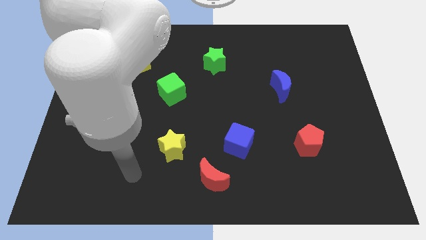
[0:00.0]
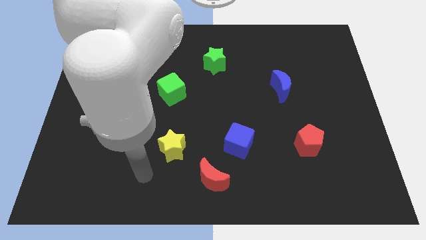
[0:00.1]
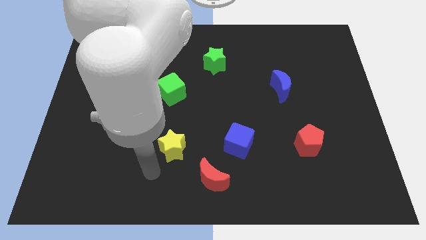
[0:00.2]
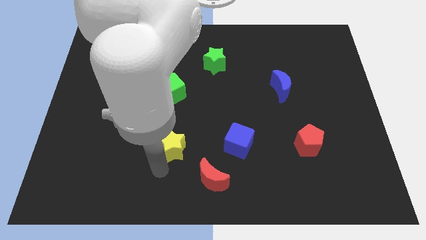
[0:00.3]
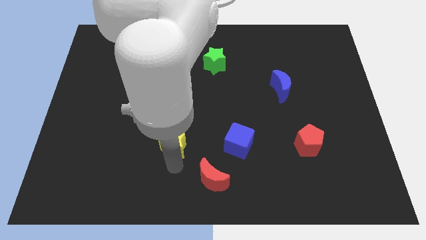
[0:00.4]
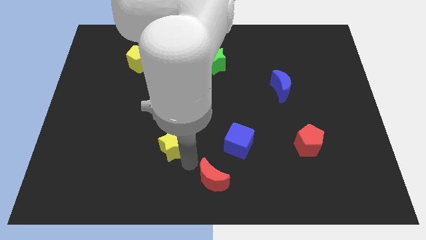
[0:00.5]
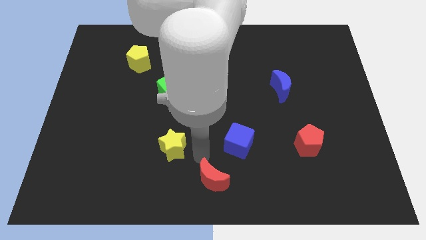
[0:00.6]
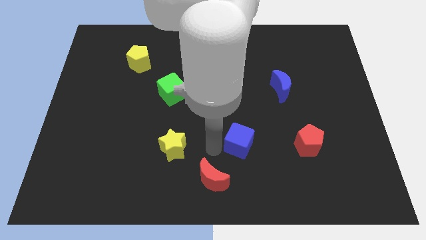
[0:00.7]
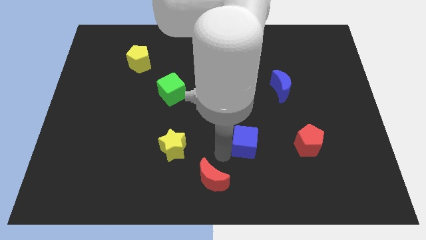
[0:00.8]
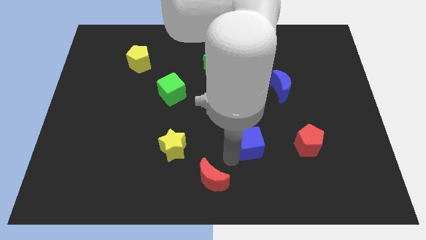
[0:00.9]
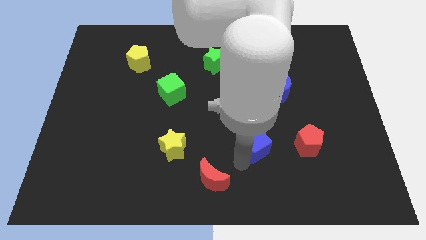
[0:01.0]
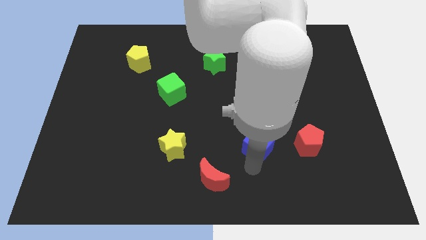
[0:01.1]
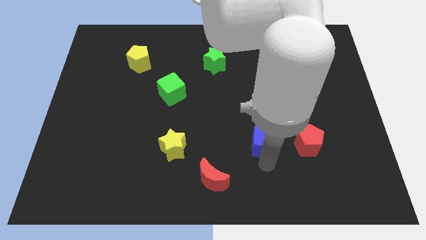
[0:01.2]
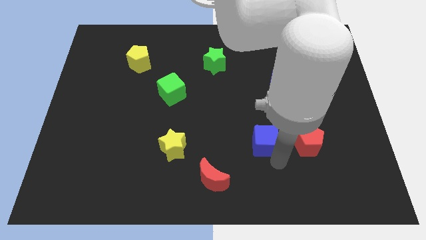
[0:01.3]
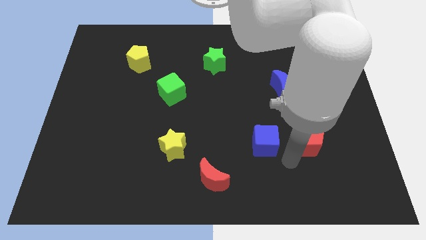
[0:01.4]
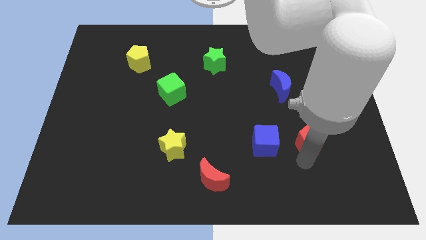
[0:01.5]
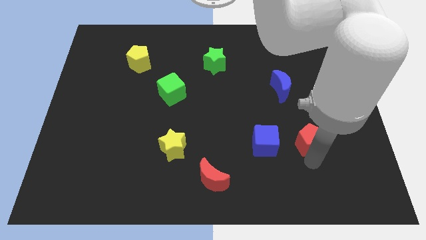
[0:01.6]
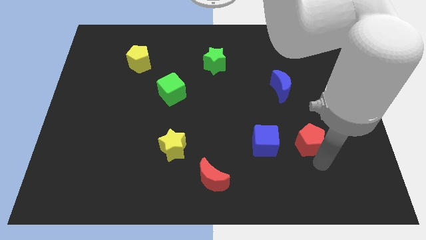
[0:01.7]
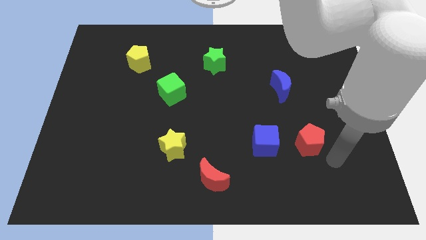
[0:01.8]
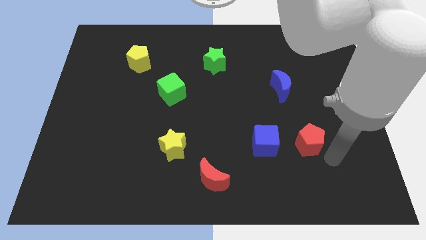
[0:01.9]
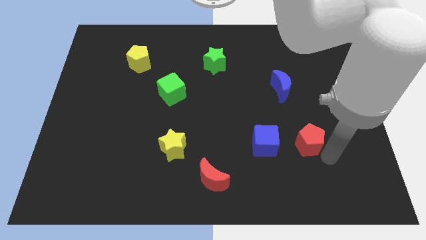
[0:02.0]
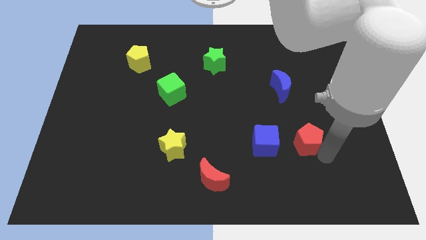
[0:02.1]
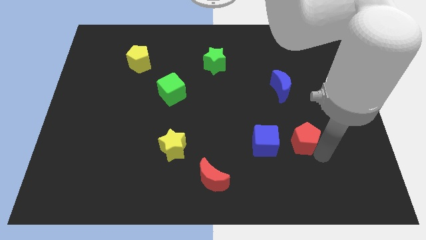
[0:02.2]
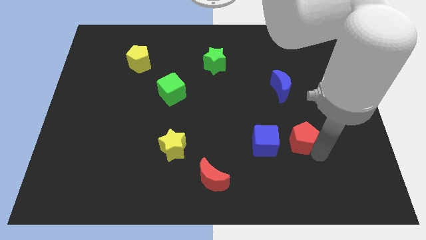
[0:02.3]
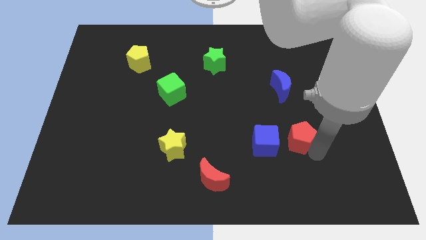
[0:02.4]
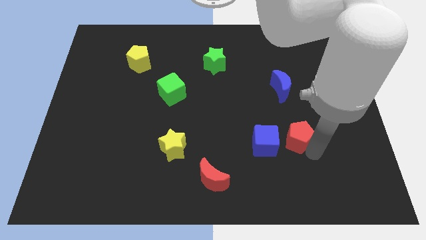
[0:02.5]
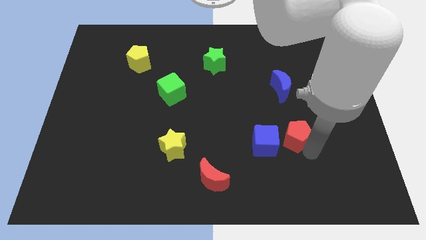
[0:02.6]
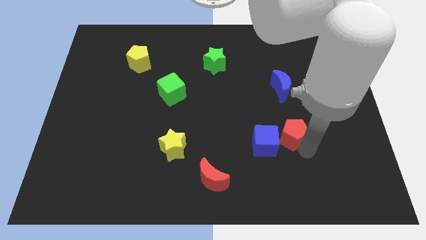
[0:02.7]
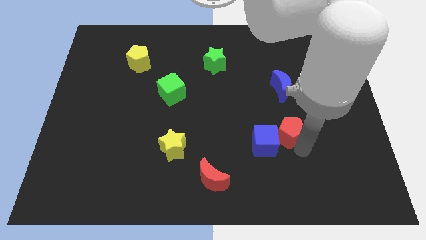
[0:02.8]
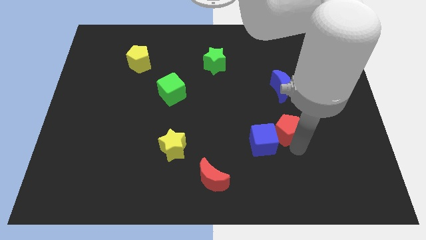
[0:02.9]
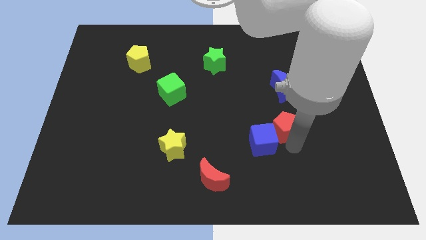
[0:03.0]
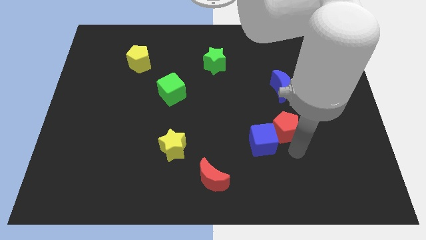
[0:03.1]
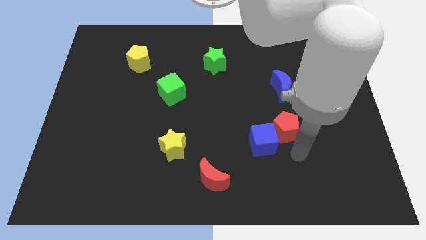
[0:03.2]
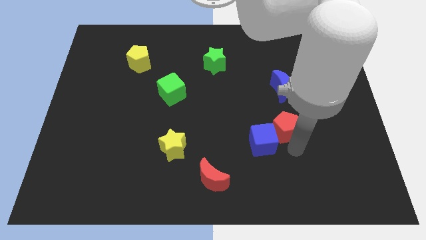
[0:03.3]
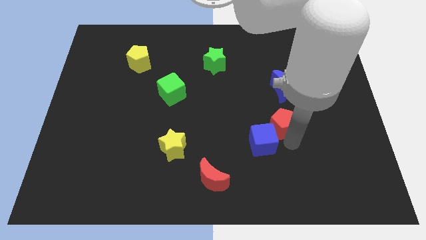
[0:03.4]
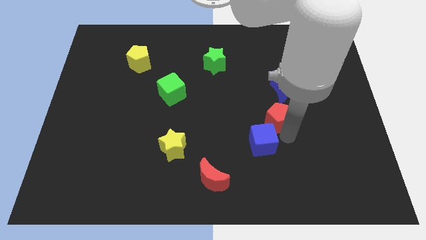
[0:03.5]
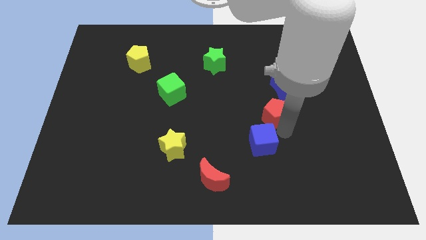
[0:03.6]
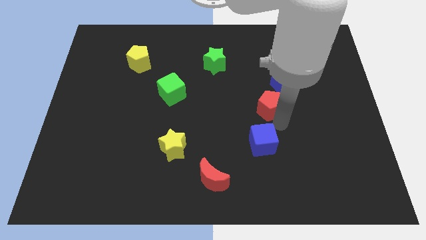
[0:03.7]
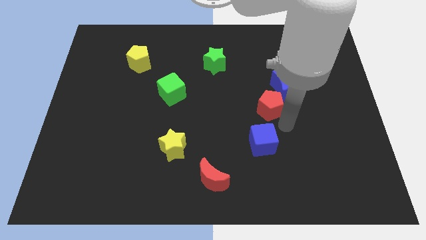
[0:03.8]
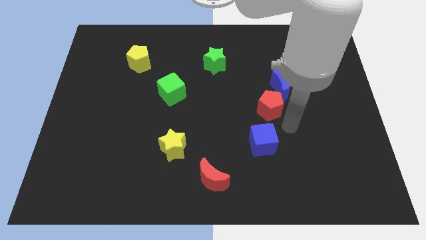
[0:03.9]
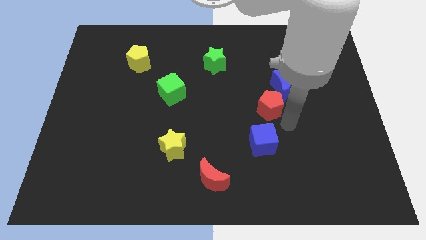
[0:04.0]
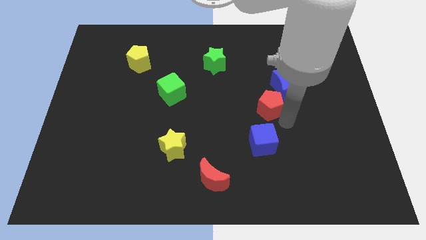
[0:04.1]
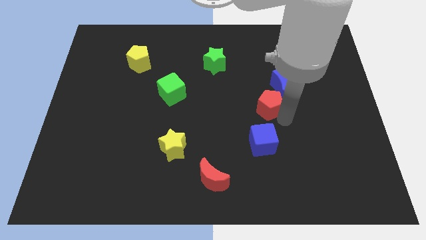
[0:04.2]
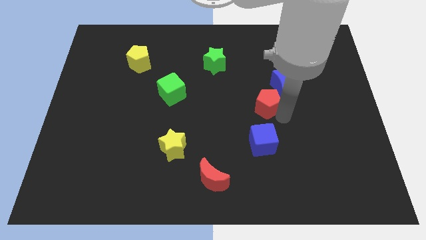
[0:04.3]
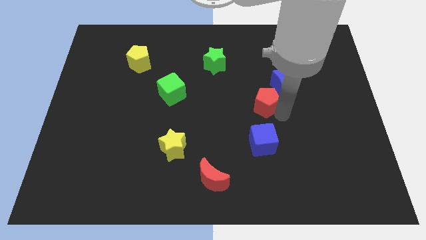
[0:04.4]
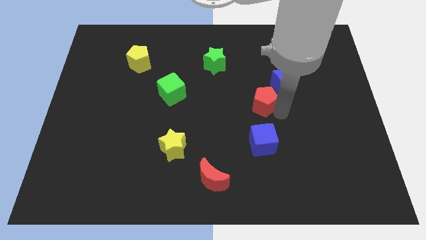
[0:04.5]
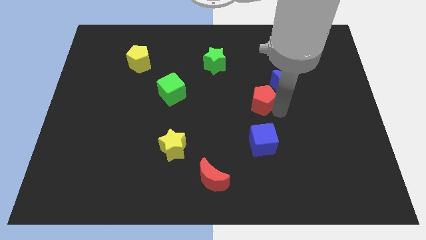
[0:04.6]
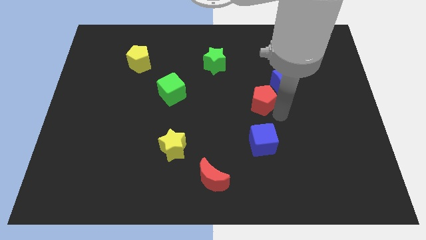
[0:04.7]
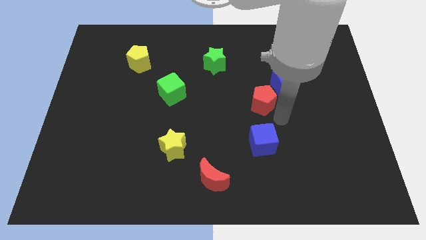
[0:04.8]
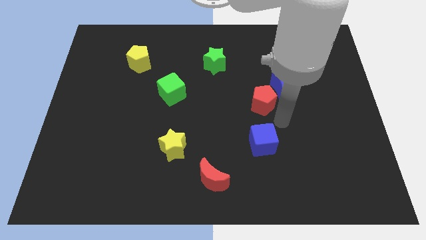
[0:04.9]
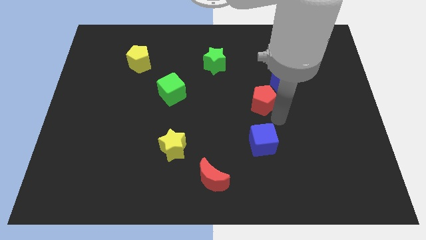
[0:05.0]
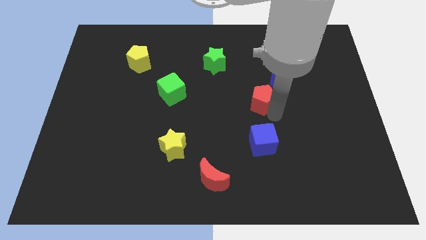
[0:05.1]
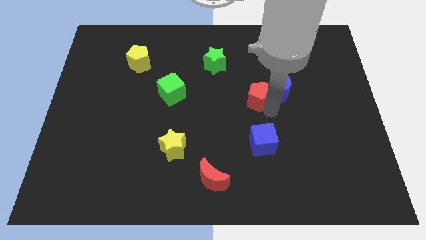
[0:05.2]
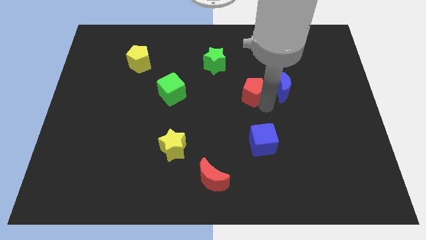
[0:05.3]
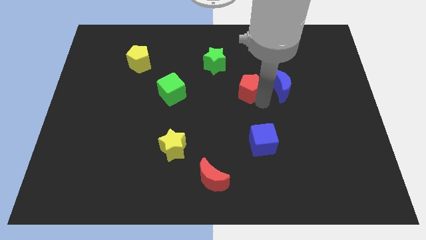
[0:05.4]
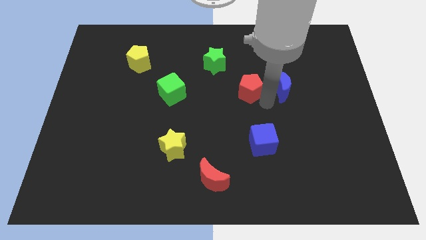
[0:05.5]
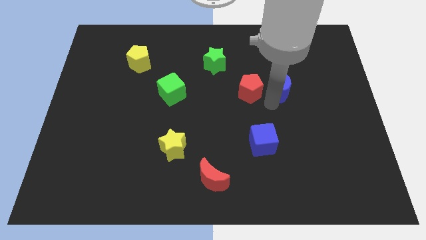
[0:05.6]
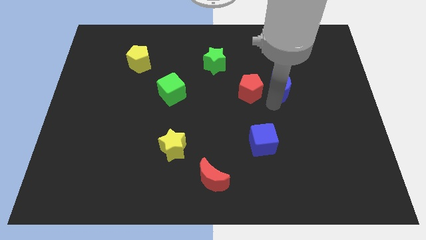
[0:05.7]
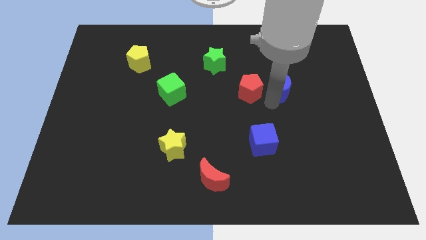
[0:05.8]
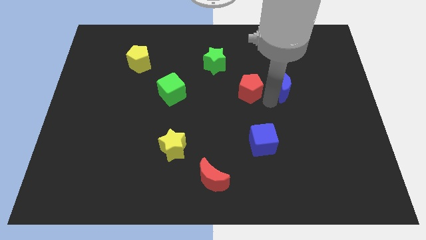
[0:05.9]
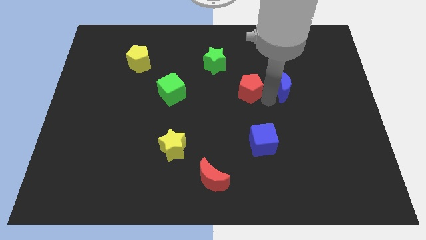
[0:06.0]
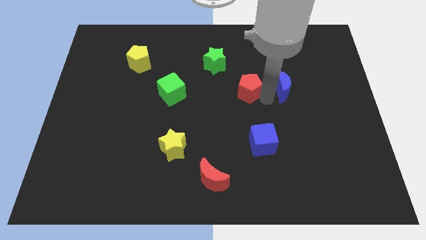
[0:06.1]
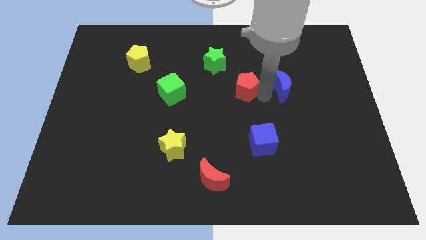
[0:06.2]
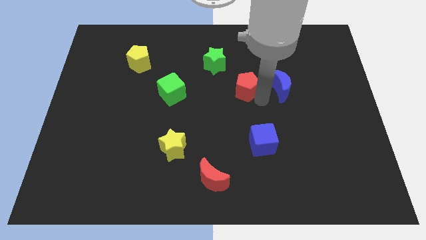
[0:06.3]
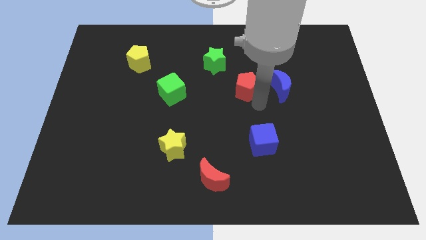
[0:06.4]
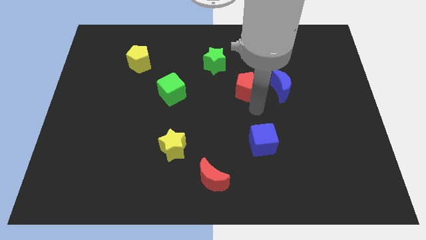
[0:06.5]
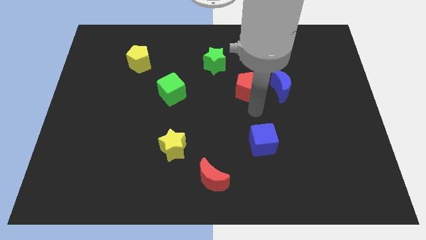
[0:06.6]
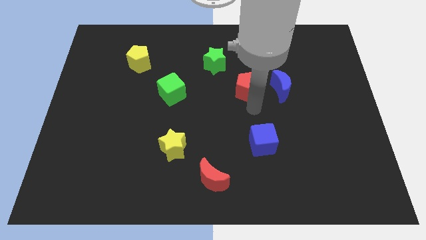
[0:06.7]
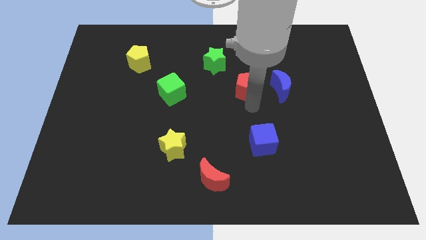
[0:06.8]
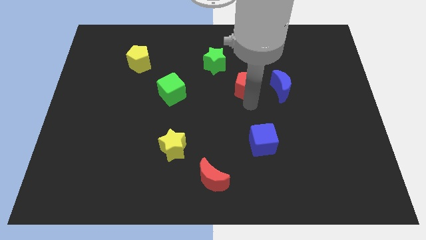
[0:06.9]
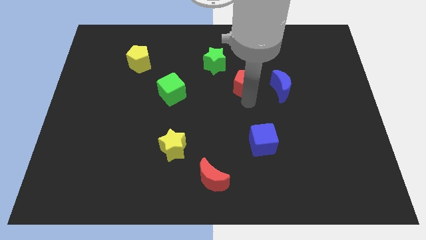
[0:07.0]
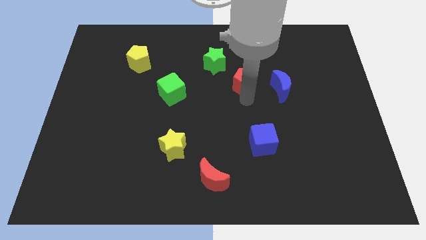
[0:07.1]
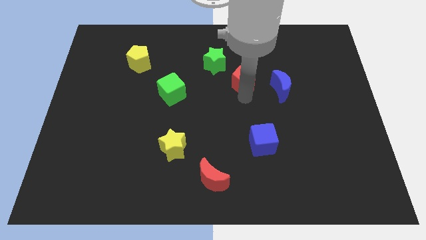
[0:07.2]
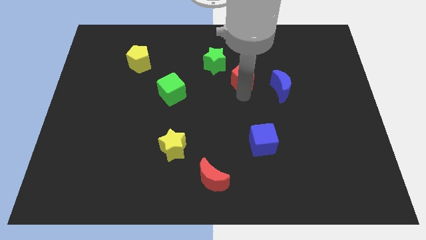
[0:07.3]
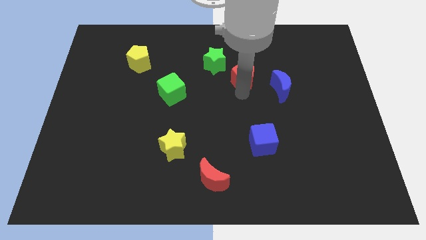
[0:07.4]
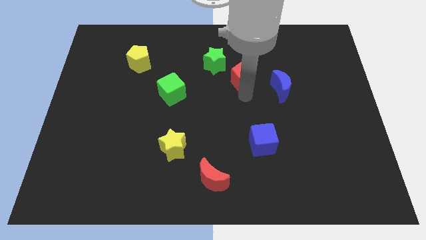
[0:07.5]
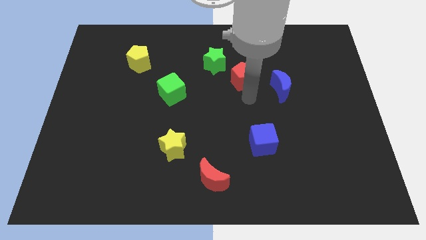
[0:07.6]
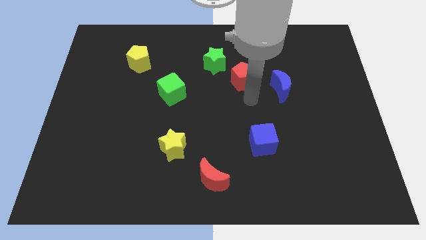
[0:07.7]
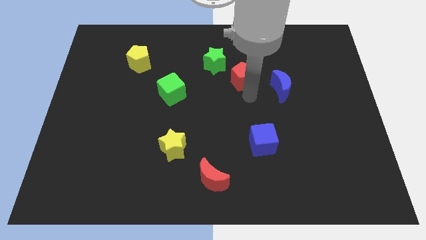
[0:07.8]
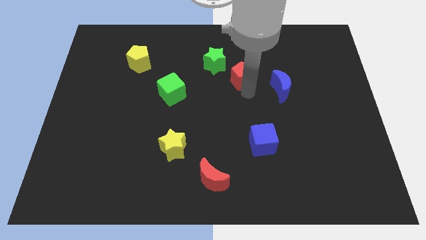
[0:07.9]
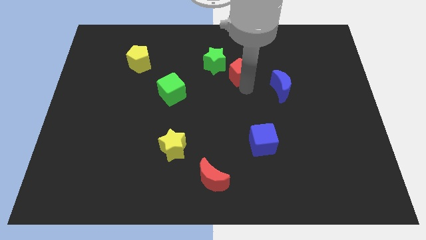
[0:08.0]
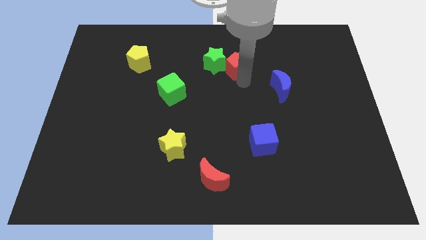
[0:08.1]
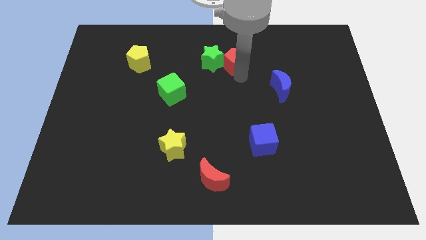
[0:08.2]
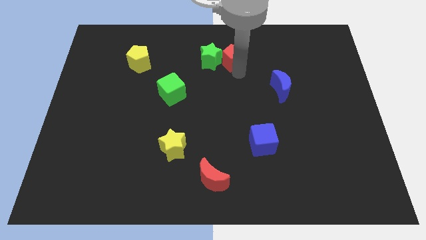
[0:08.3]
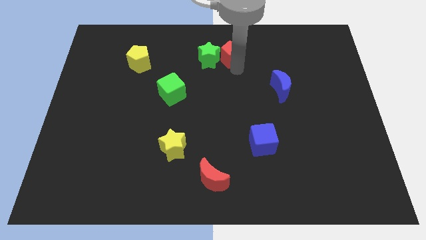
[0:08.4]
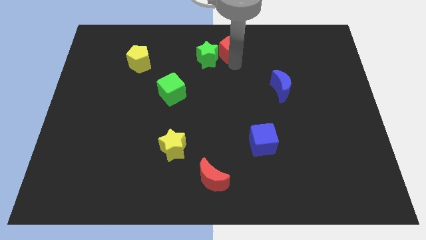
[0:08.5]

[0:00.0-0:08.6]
push the red pentagon to the top
